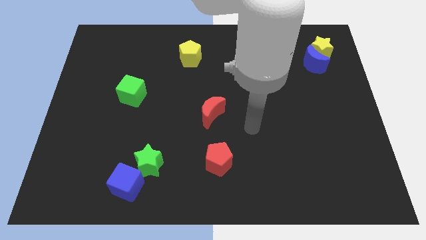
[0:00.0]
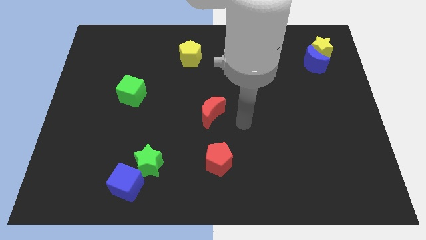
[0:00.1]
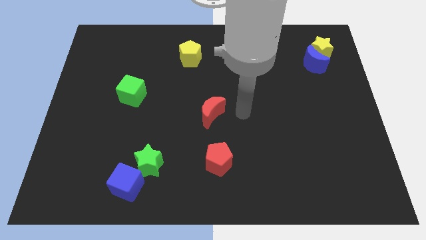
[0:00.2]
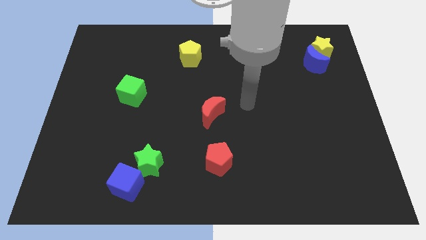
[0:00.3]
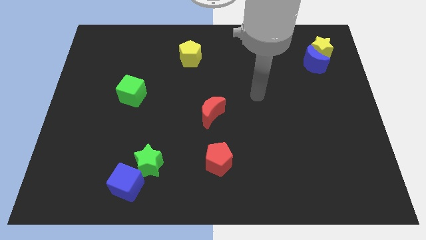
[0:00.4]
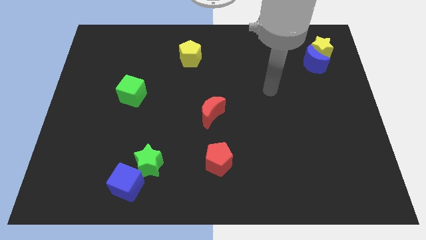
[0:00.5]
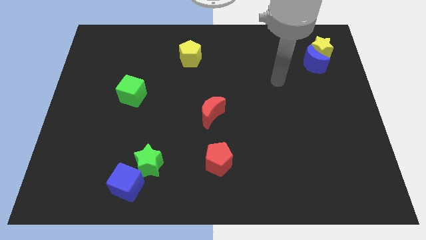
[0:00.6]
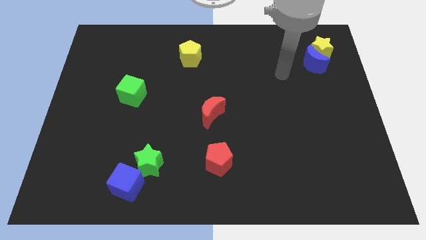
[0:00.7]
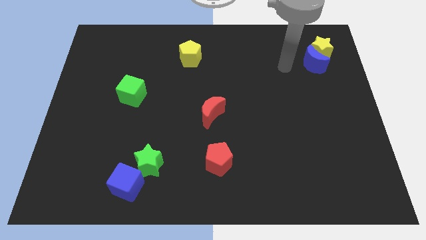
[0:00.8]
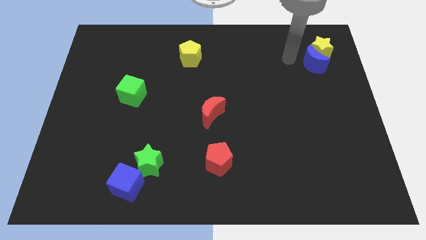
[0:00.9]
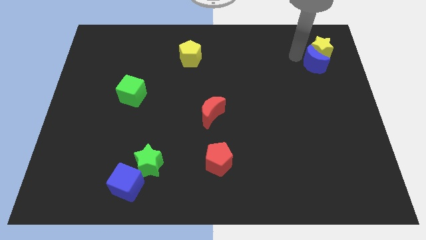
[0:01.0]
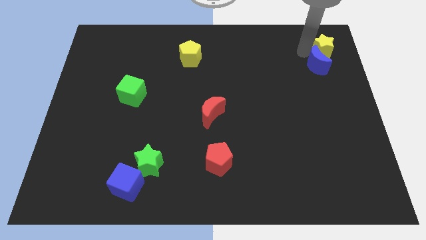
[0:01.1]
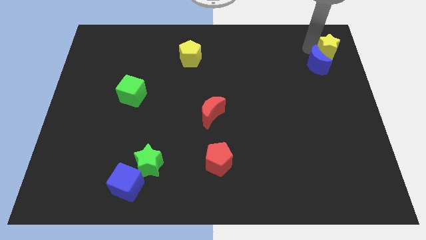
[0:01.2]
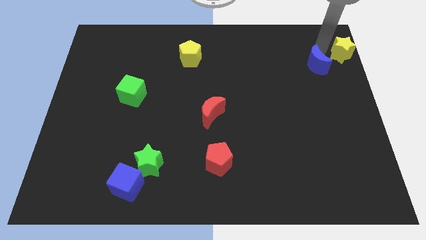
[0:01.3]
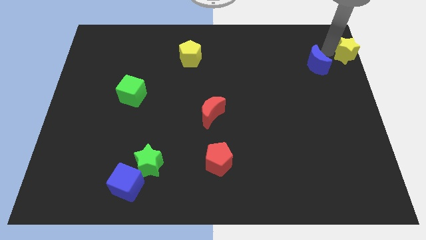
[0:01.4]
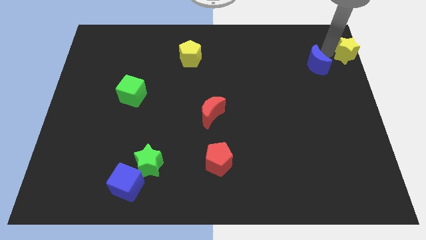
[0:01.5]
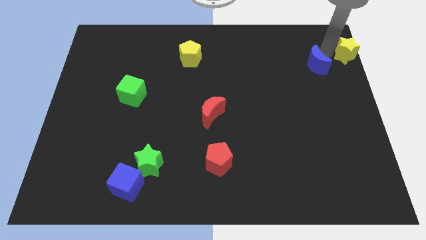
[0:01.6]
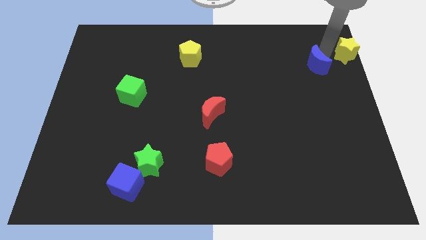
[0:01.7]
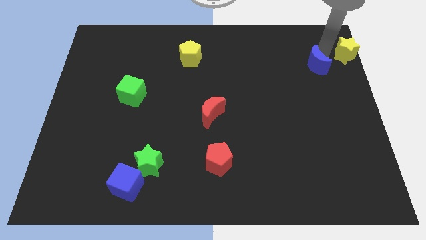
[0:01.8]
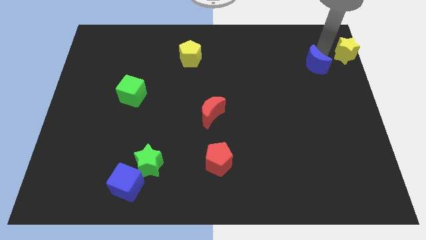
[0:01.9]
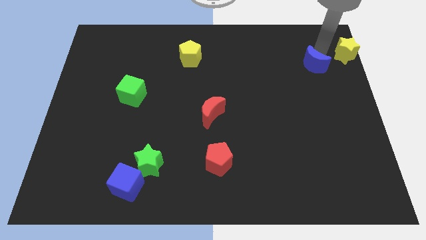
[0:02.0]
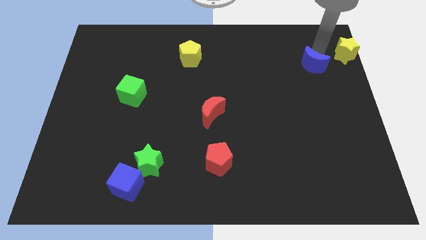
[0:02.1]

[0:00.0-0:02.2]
separate the blue moon from the yellow star

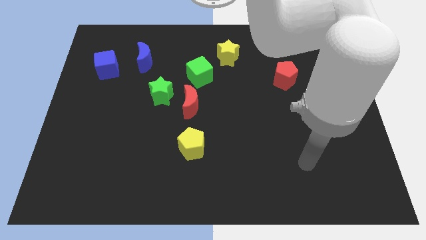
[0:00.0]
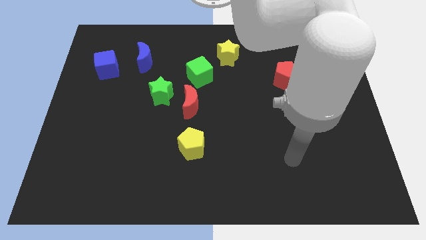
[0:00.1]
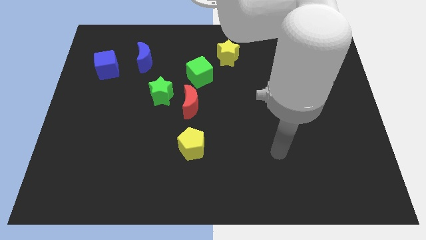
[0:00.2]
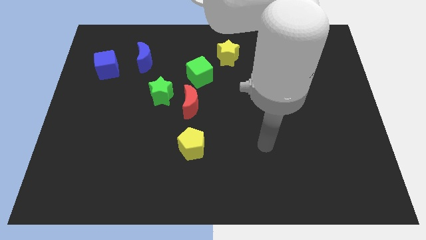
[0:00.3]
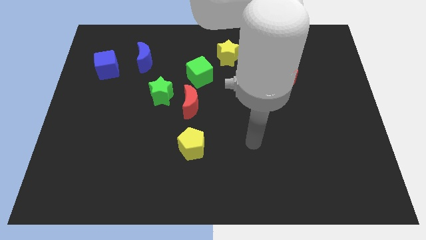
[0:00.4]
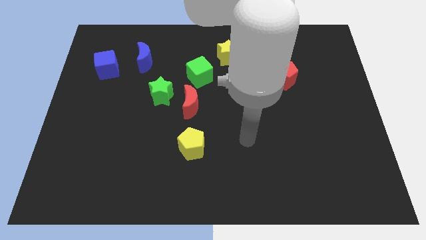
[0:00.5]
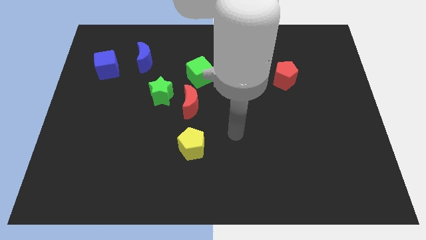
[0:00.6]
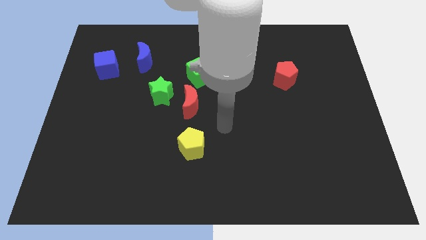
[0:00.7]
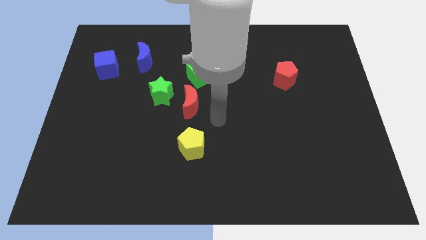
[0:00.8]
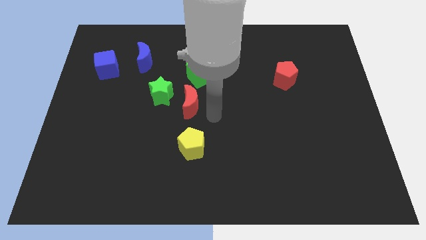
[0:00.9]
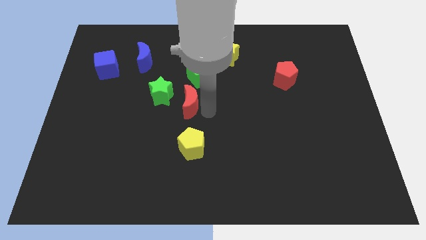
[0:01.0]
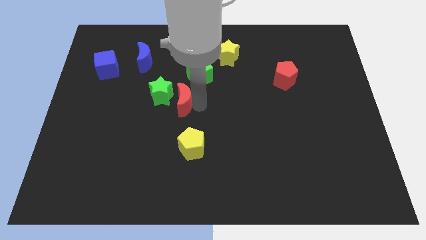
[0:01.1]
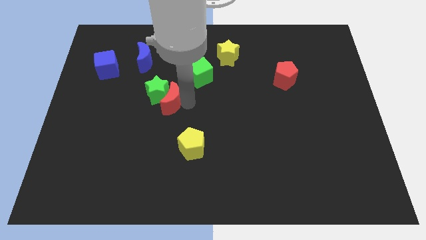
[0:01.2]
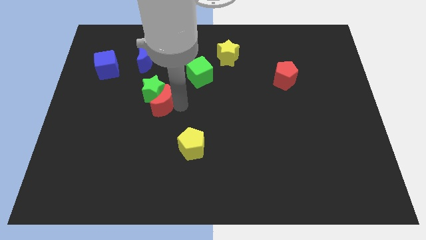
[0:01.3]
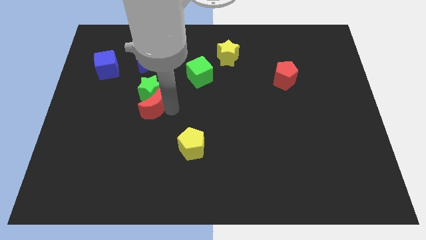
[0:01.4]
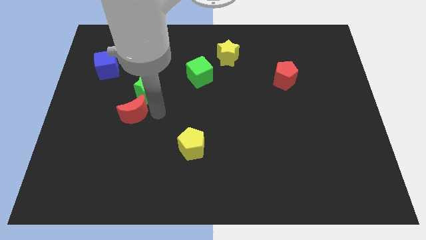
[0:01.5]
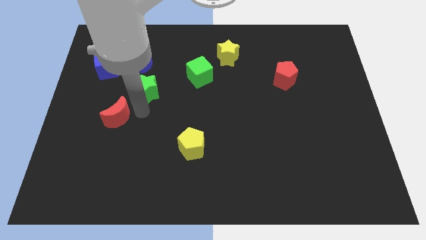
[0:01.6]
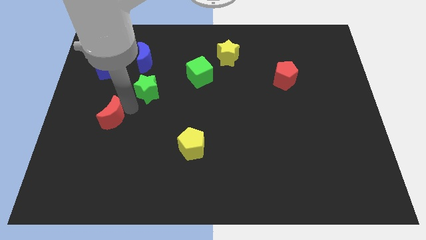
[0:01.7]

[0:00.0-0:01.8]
move the green star away from the red moon

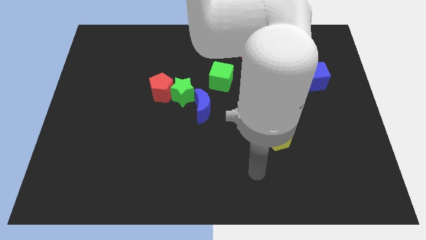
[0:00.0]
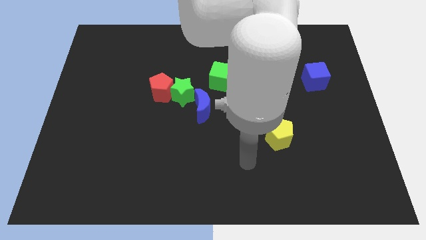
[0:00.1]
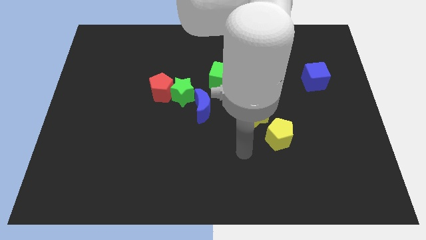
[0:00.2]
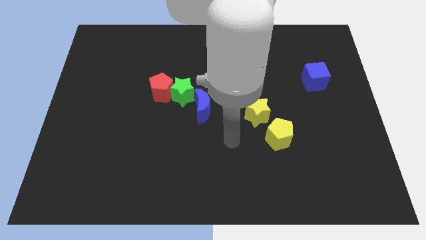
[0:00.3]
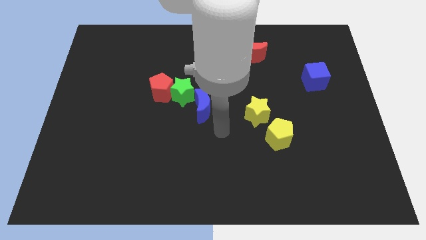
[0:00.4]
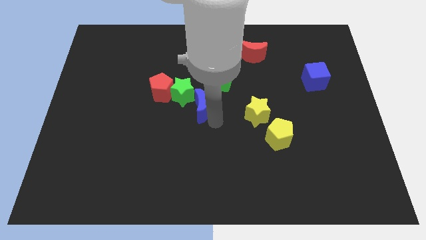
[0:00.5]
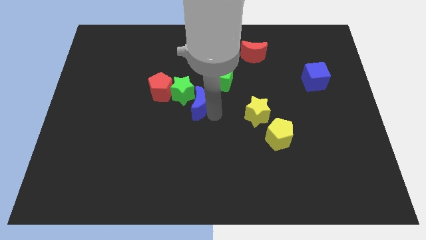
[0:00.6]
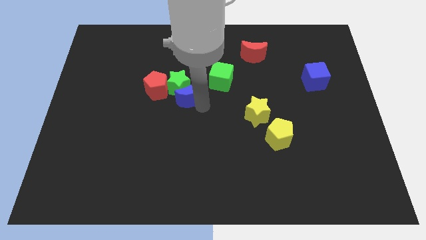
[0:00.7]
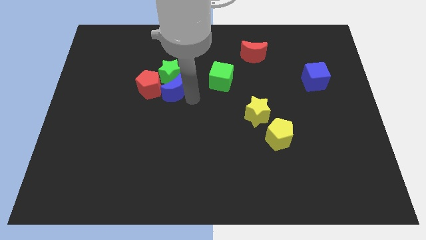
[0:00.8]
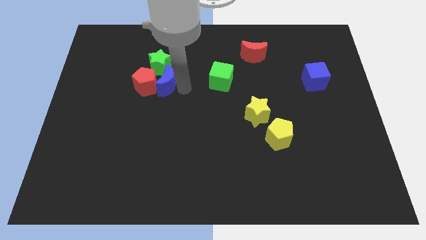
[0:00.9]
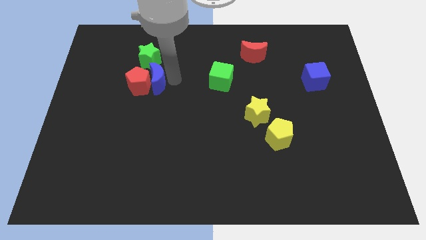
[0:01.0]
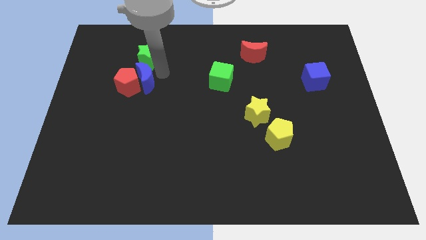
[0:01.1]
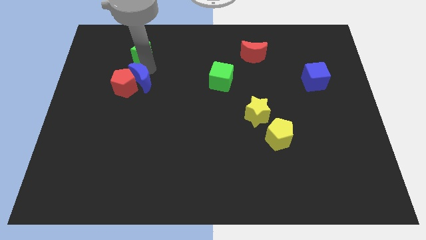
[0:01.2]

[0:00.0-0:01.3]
separate the red pentagon from the green star

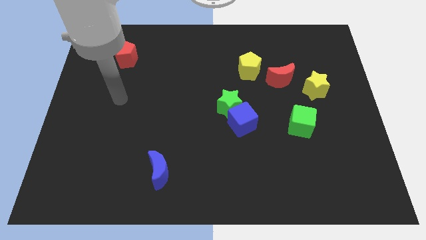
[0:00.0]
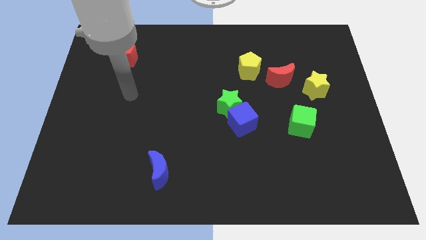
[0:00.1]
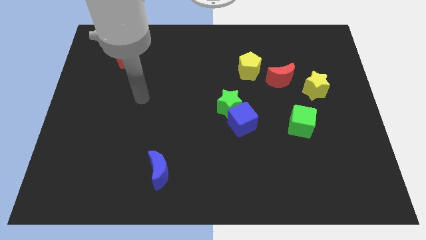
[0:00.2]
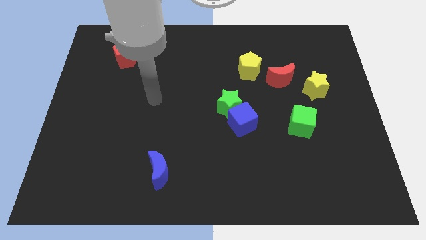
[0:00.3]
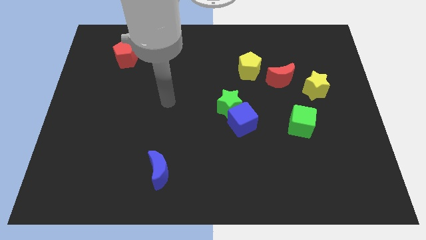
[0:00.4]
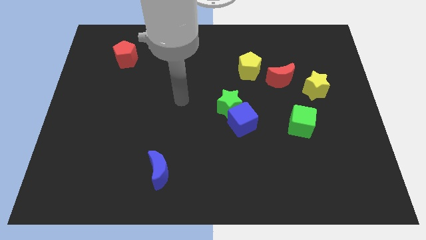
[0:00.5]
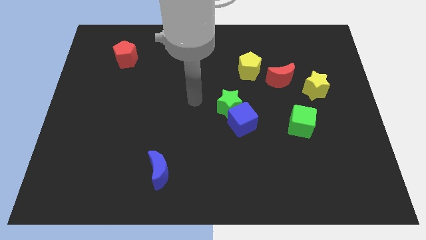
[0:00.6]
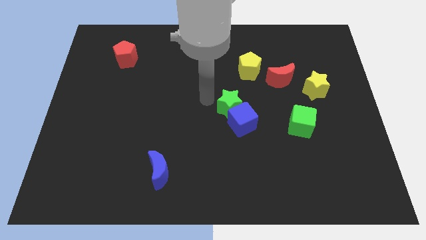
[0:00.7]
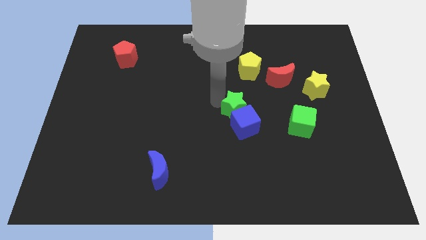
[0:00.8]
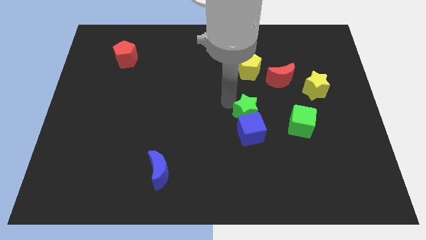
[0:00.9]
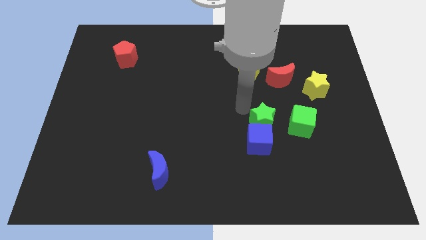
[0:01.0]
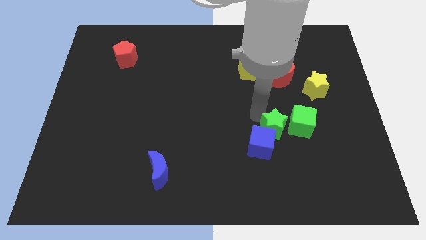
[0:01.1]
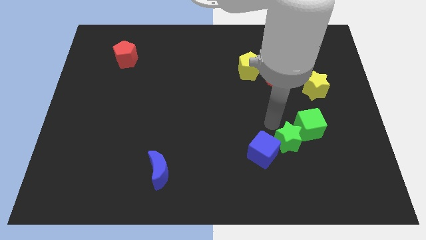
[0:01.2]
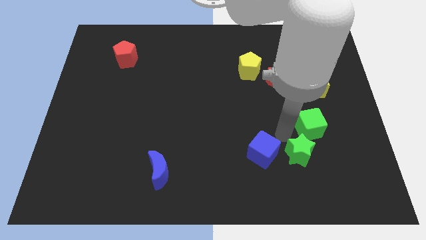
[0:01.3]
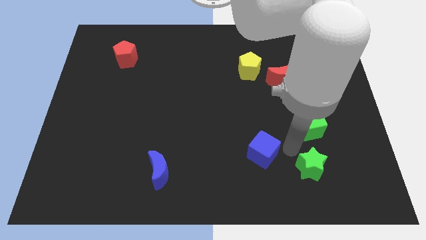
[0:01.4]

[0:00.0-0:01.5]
pull the blue cube apart from the green star

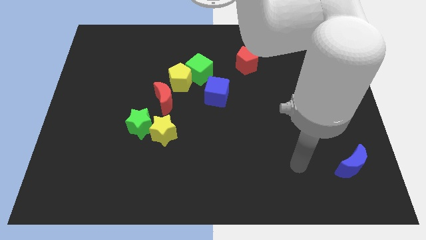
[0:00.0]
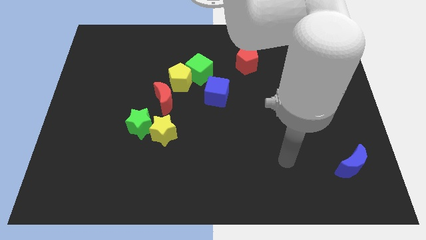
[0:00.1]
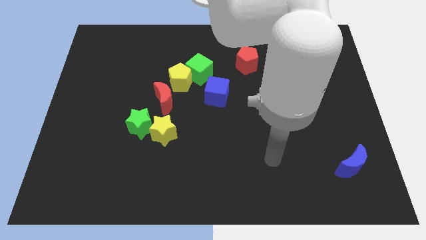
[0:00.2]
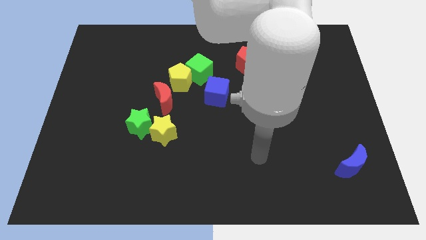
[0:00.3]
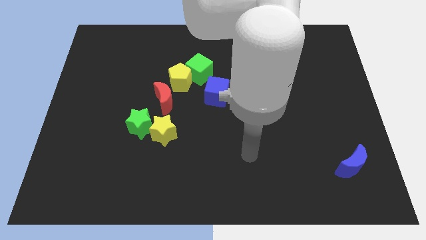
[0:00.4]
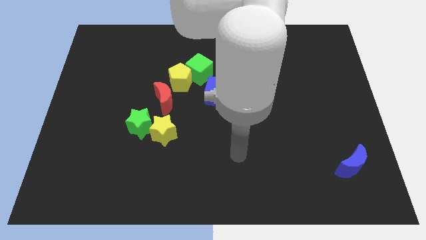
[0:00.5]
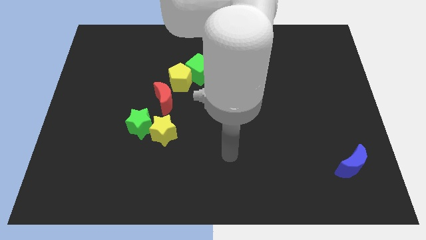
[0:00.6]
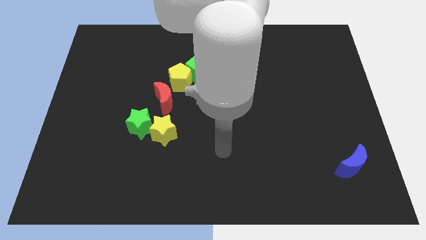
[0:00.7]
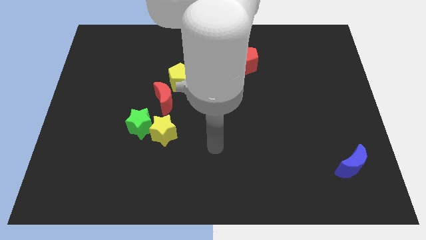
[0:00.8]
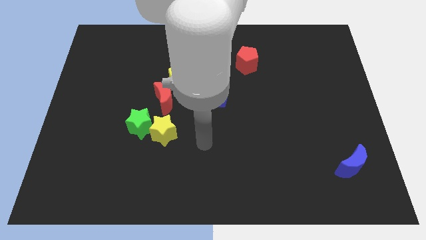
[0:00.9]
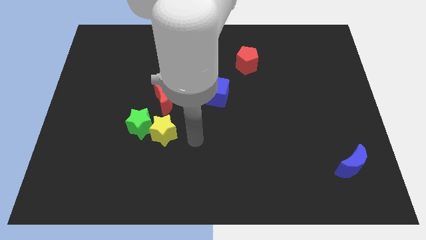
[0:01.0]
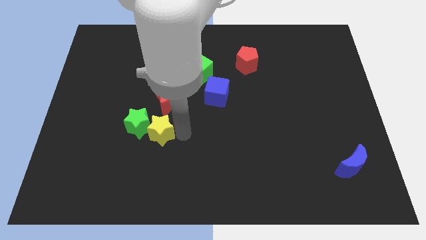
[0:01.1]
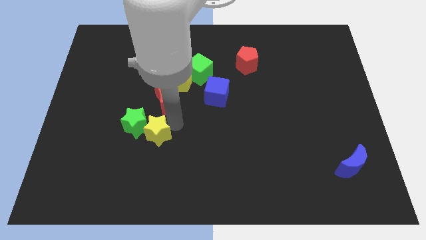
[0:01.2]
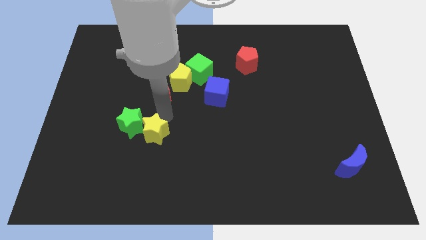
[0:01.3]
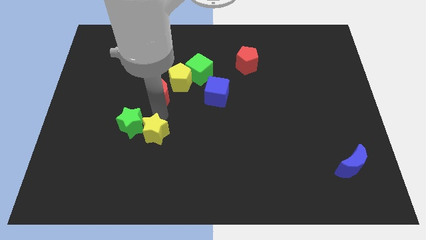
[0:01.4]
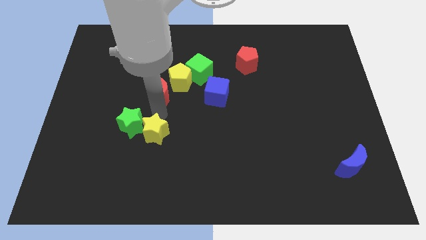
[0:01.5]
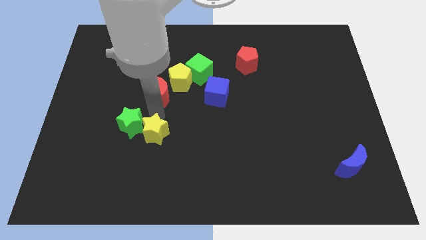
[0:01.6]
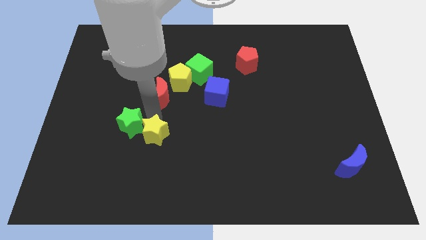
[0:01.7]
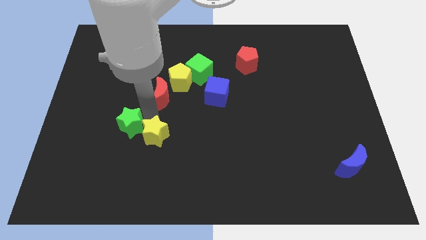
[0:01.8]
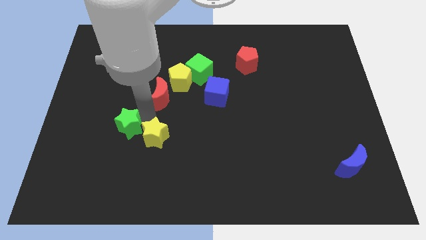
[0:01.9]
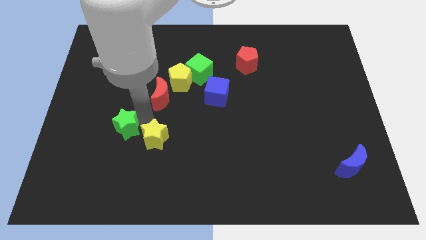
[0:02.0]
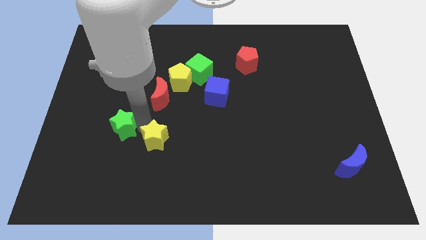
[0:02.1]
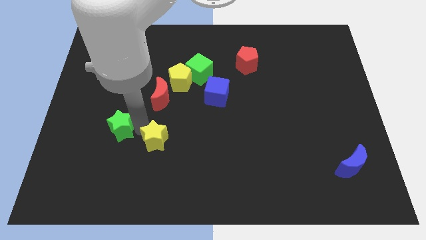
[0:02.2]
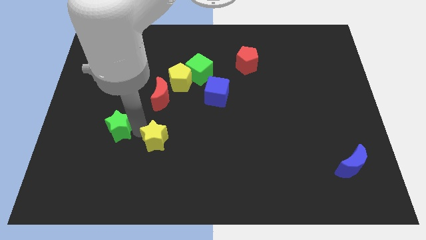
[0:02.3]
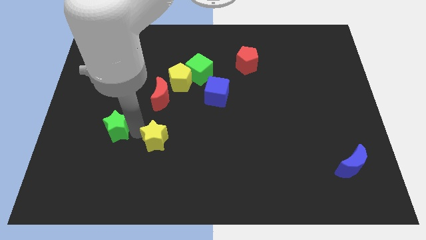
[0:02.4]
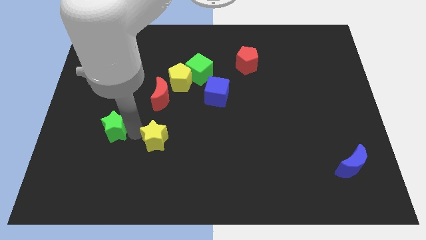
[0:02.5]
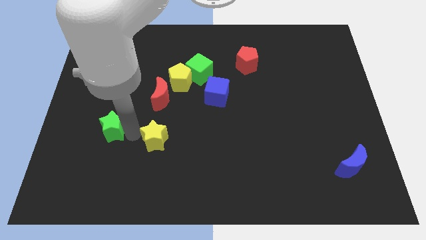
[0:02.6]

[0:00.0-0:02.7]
move the green star away from the yellow star and red moon
